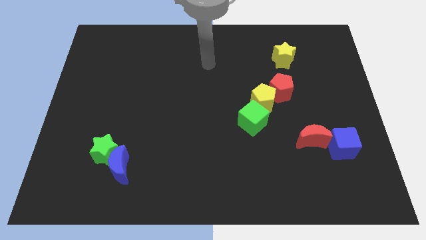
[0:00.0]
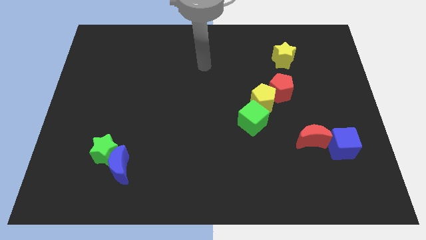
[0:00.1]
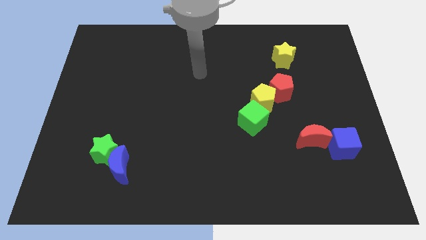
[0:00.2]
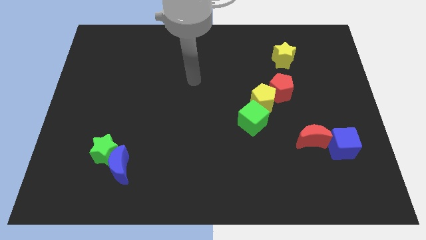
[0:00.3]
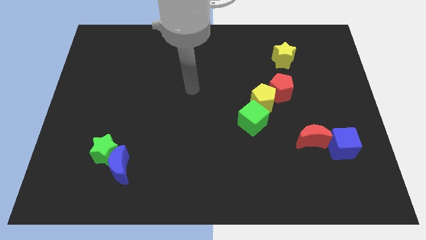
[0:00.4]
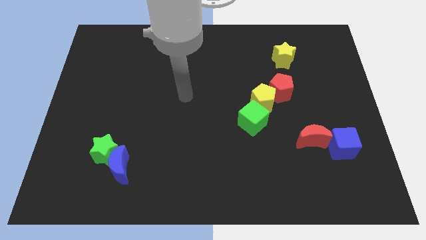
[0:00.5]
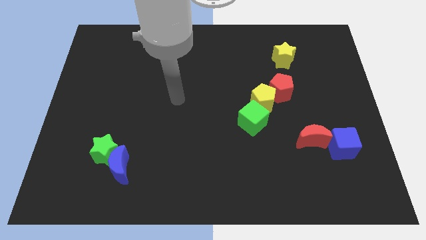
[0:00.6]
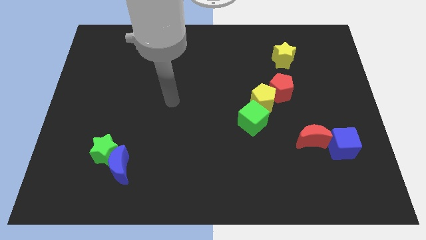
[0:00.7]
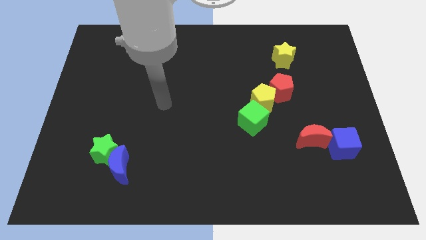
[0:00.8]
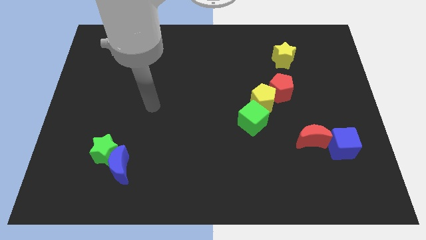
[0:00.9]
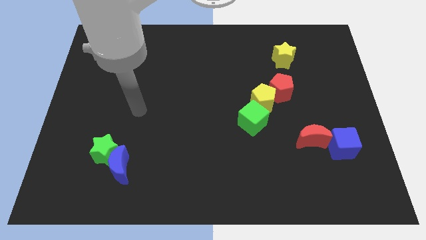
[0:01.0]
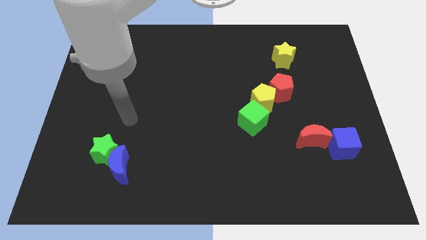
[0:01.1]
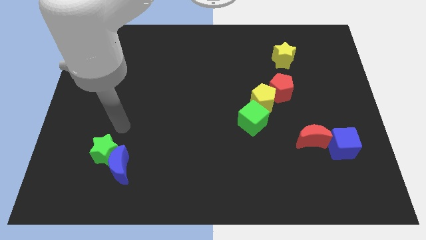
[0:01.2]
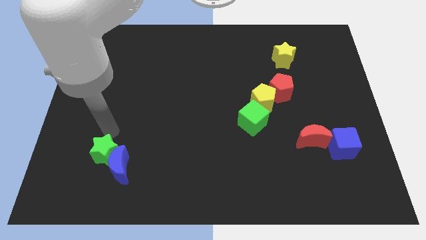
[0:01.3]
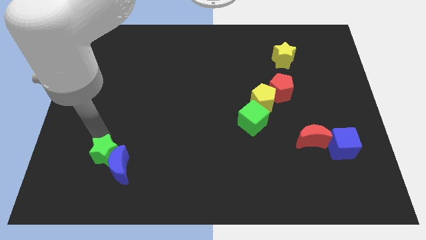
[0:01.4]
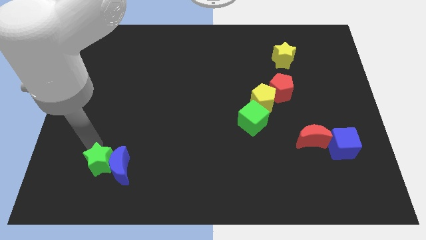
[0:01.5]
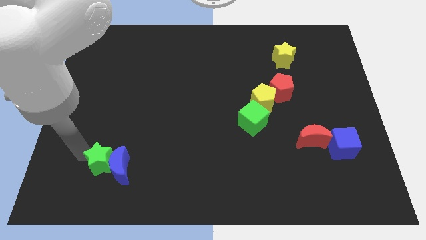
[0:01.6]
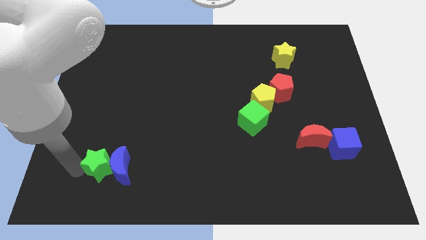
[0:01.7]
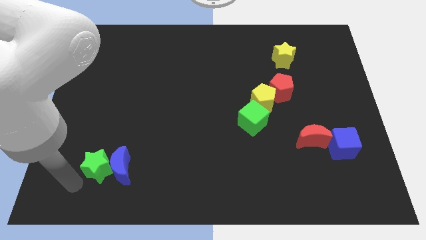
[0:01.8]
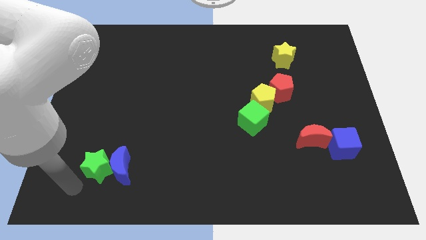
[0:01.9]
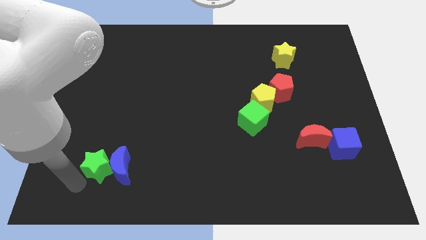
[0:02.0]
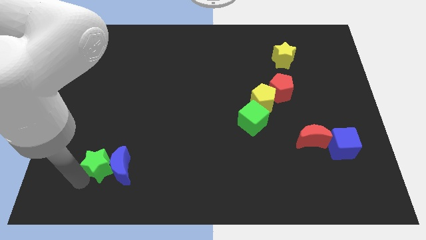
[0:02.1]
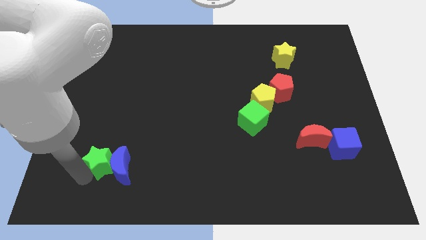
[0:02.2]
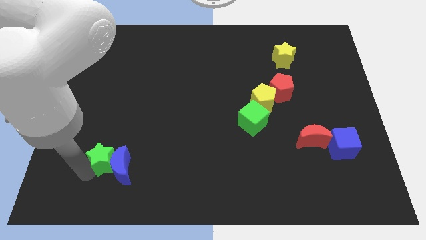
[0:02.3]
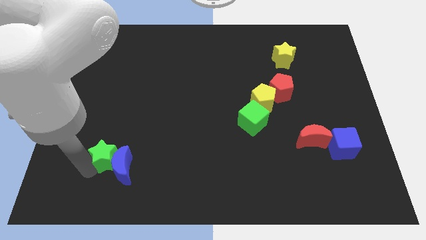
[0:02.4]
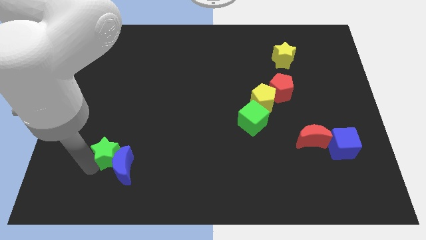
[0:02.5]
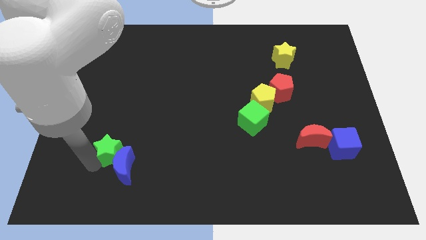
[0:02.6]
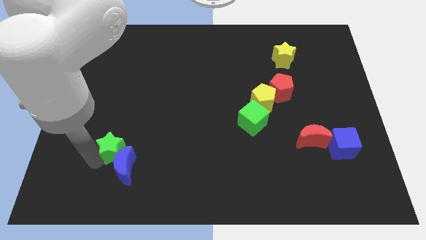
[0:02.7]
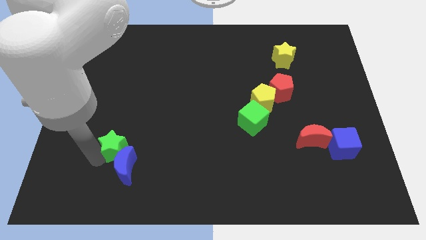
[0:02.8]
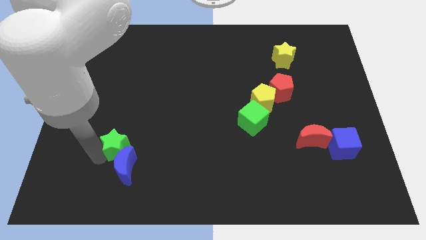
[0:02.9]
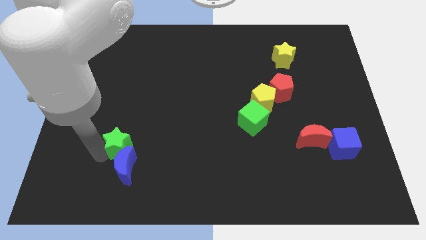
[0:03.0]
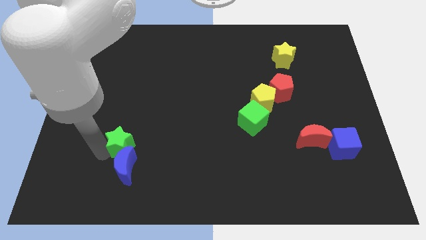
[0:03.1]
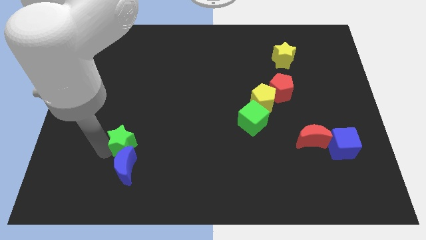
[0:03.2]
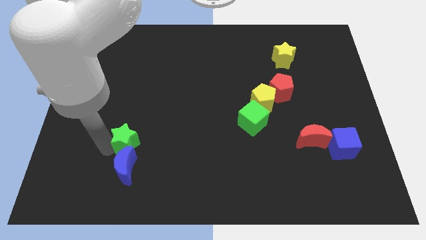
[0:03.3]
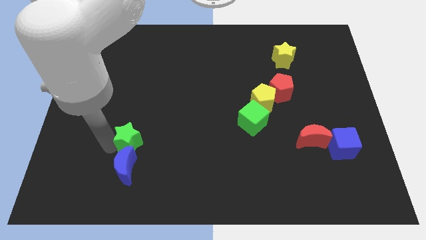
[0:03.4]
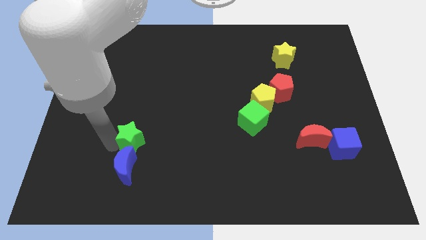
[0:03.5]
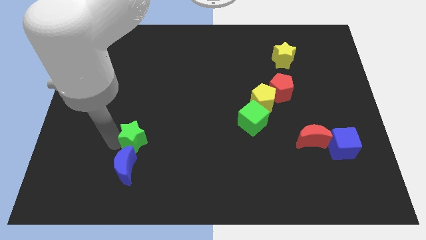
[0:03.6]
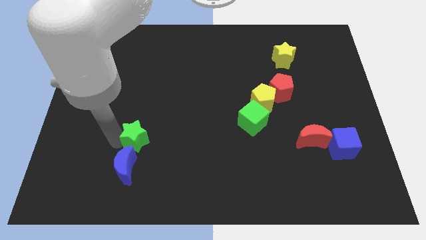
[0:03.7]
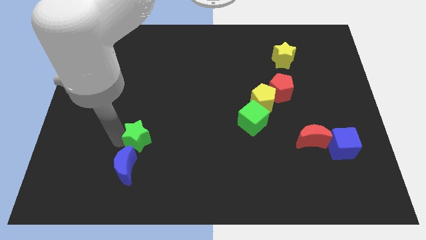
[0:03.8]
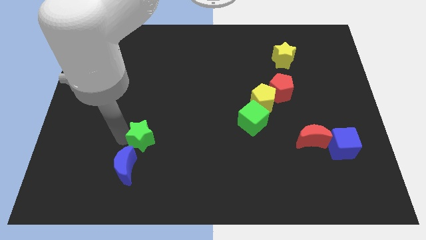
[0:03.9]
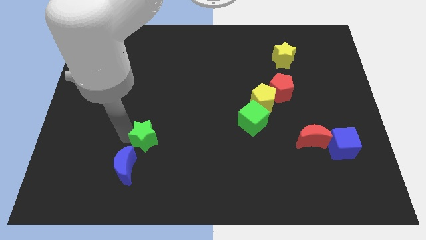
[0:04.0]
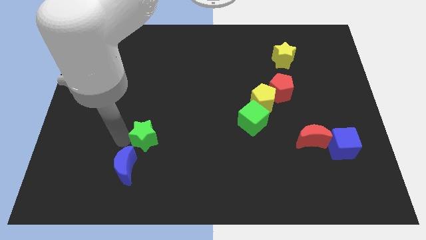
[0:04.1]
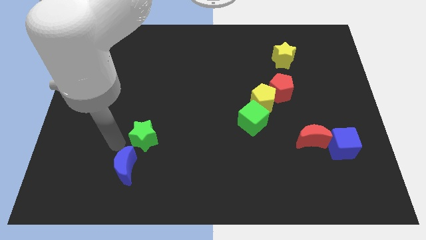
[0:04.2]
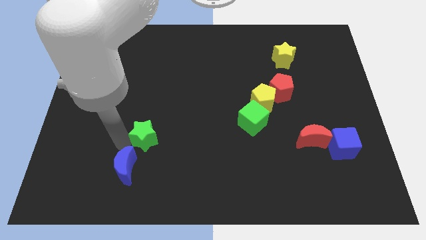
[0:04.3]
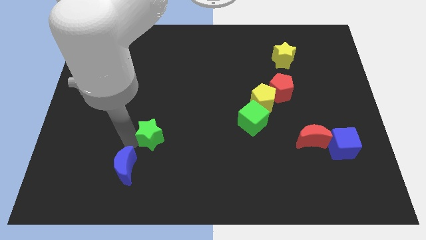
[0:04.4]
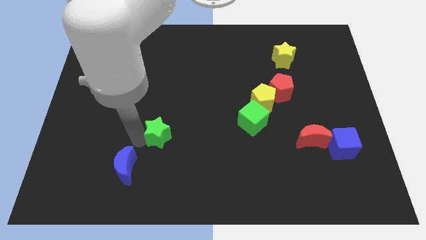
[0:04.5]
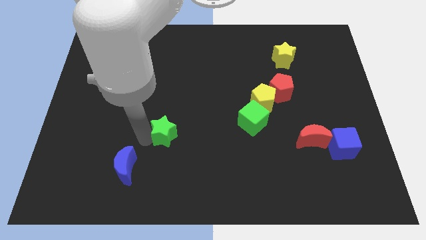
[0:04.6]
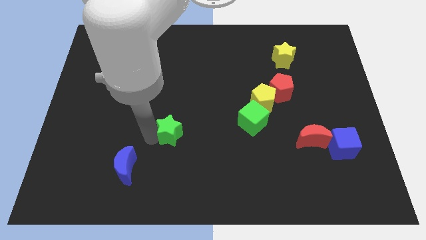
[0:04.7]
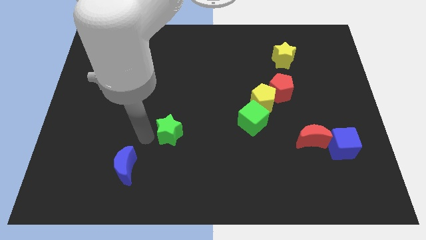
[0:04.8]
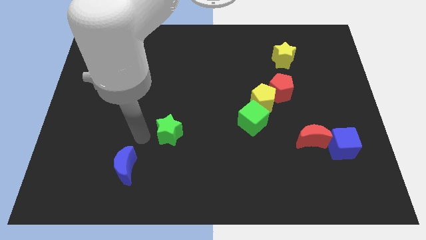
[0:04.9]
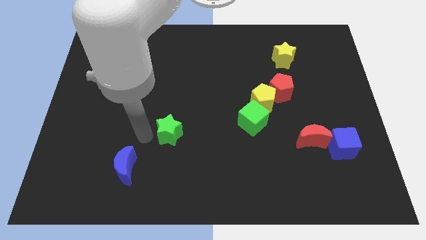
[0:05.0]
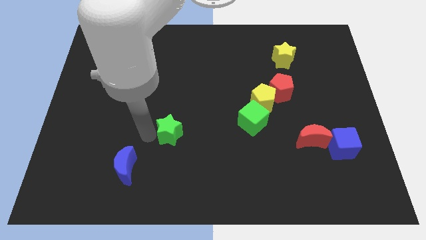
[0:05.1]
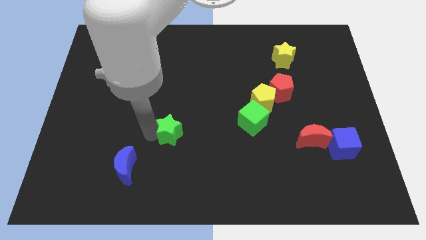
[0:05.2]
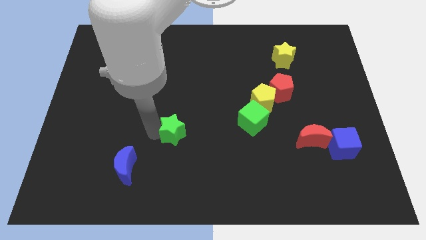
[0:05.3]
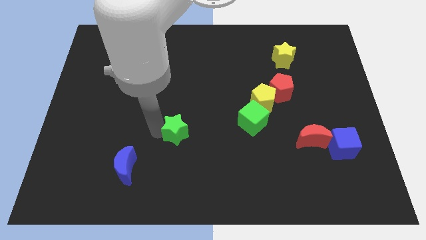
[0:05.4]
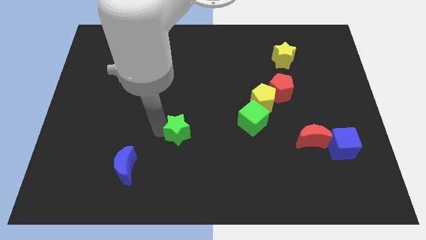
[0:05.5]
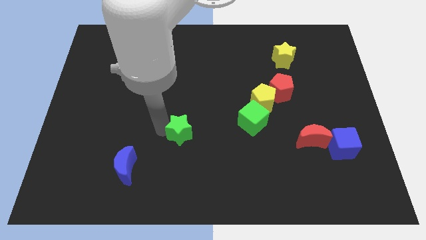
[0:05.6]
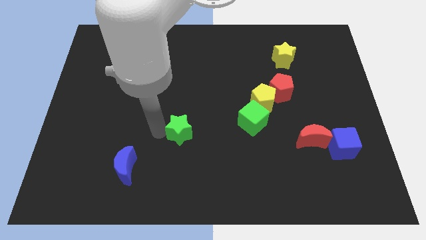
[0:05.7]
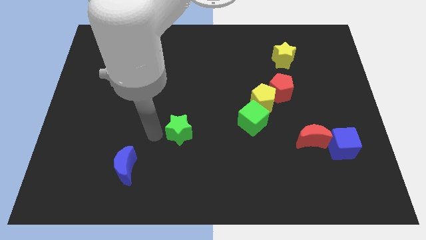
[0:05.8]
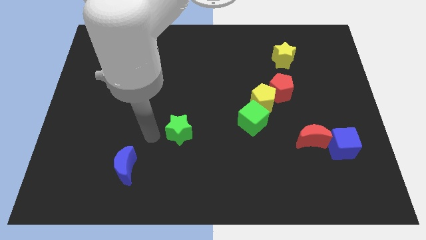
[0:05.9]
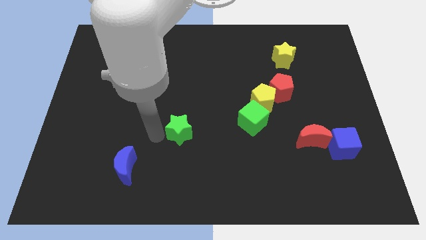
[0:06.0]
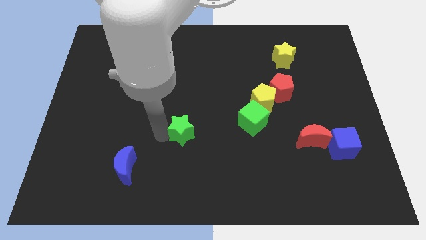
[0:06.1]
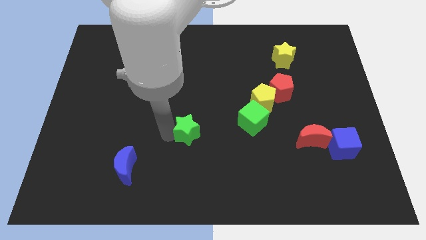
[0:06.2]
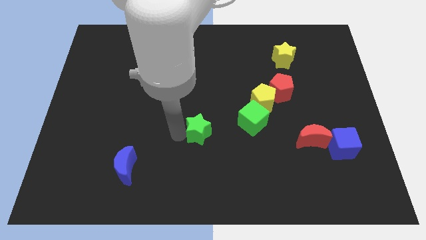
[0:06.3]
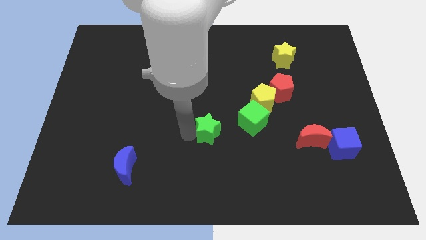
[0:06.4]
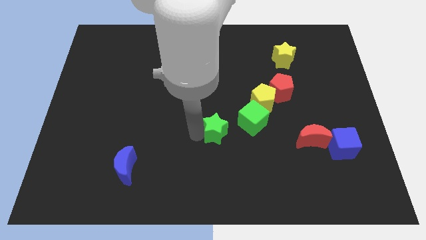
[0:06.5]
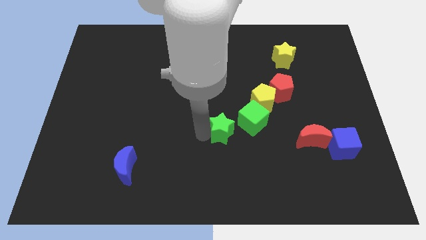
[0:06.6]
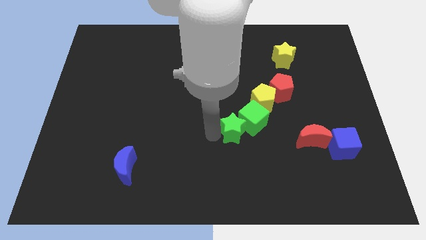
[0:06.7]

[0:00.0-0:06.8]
push the green star close to the green cube
